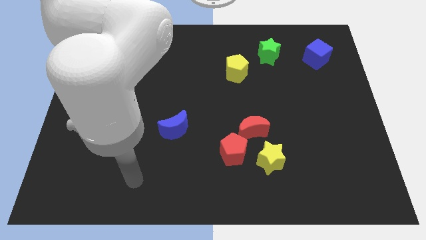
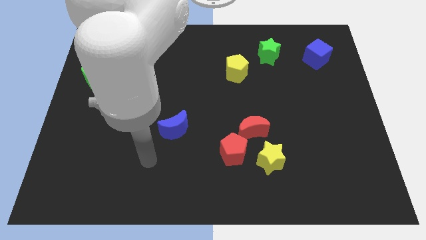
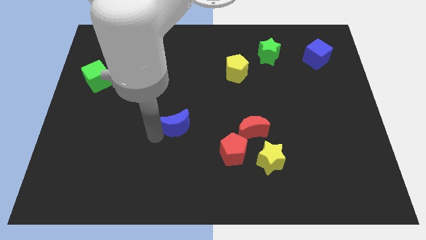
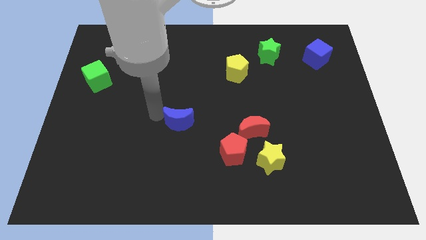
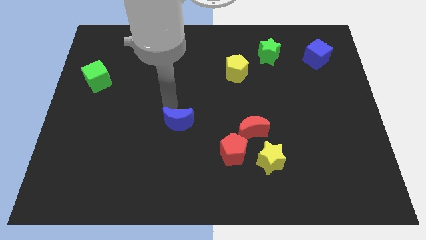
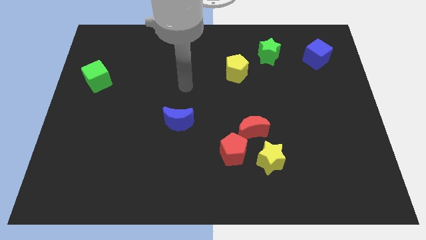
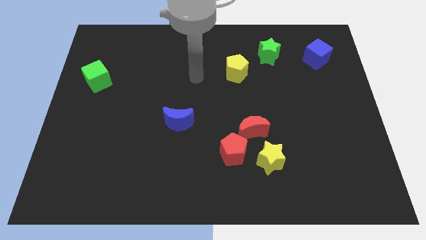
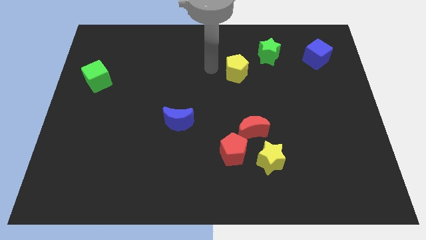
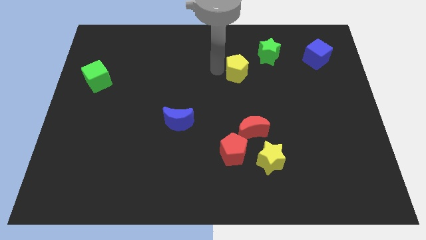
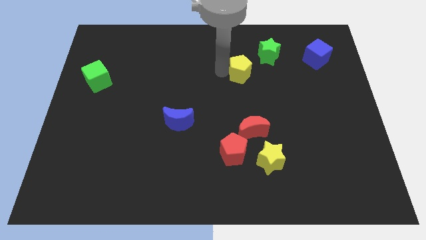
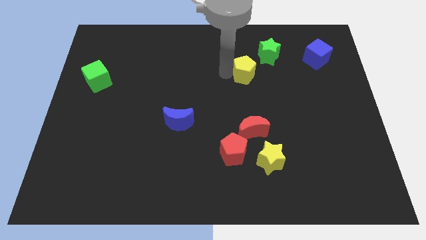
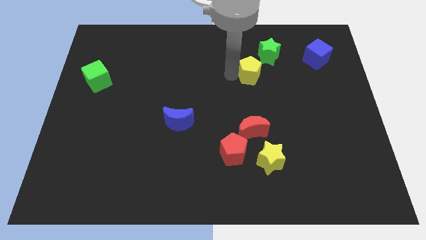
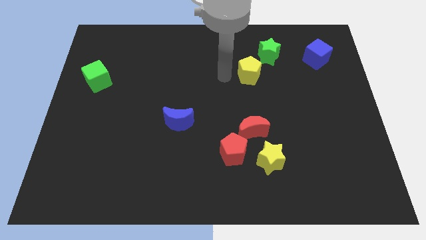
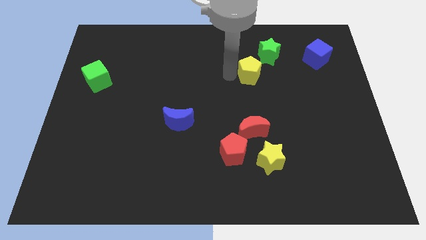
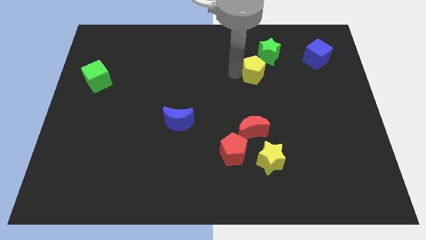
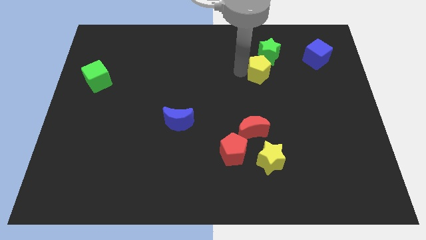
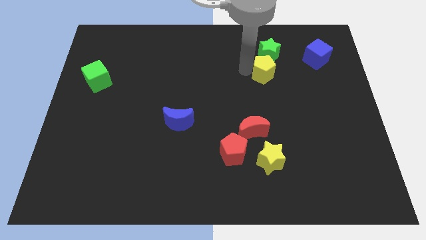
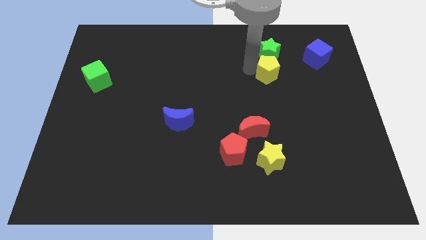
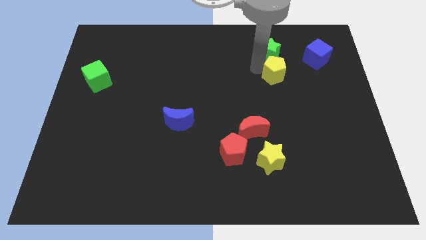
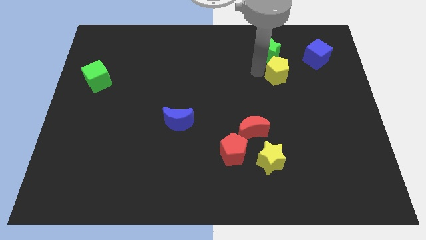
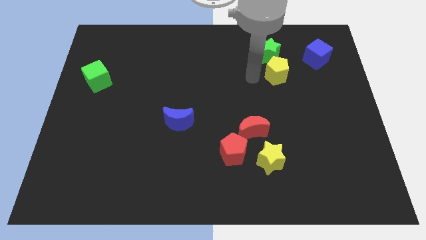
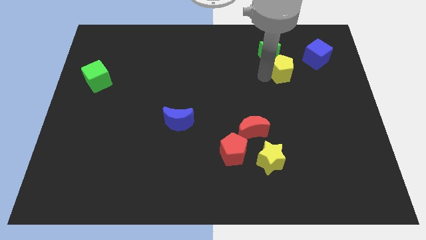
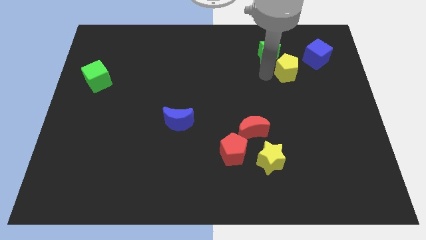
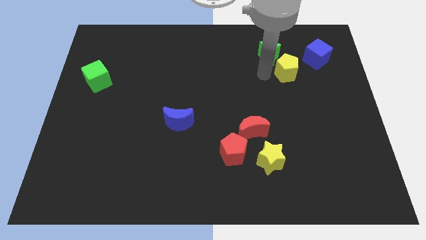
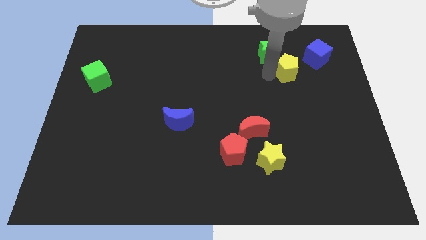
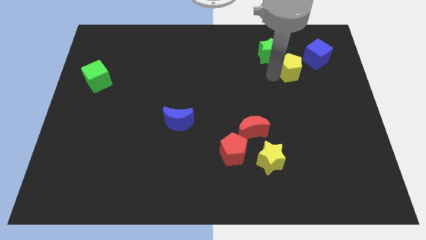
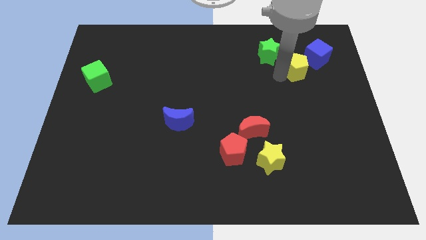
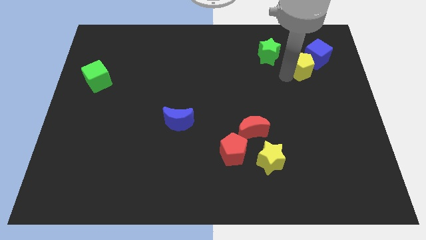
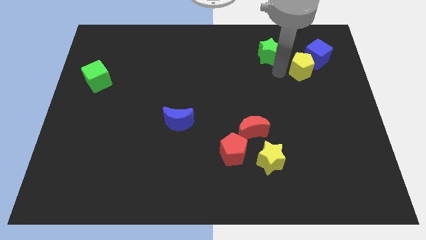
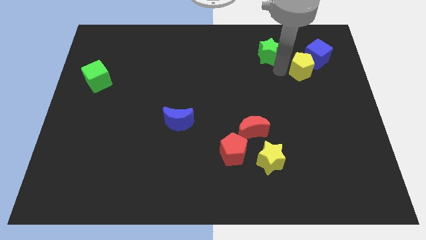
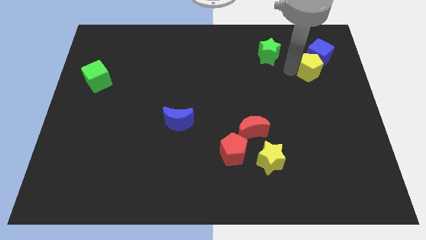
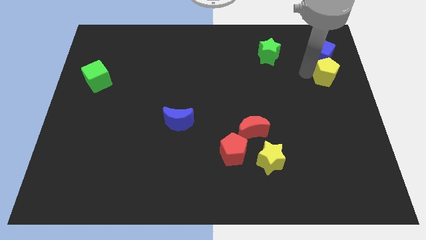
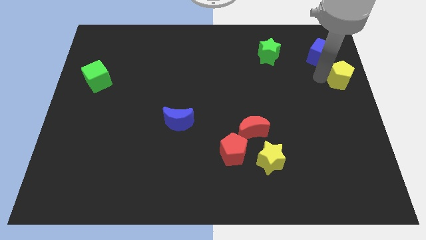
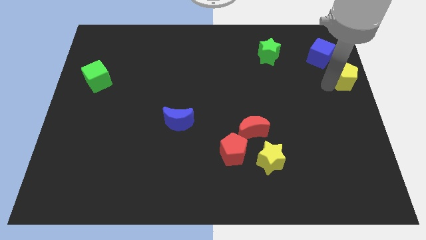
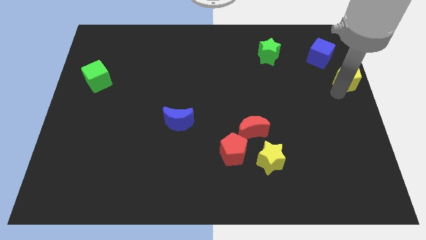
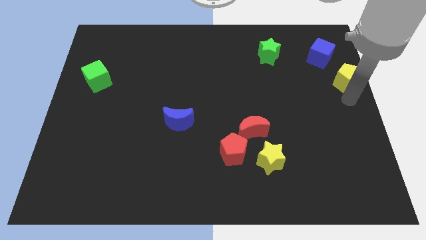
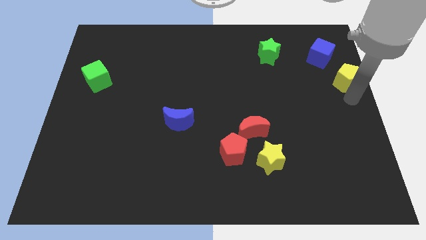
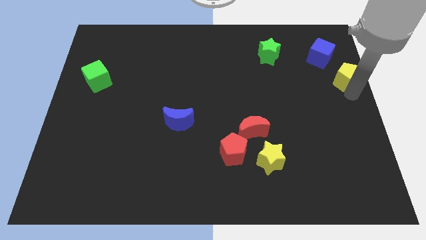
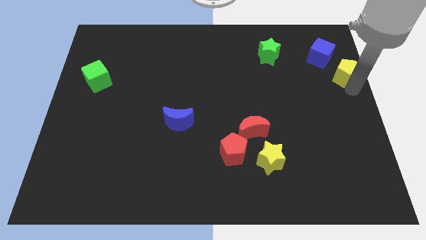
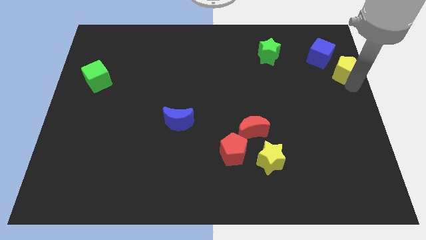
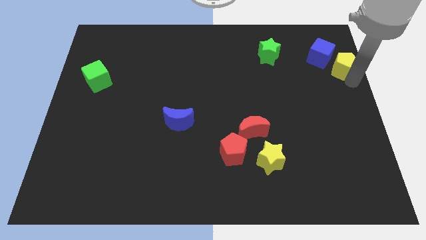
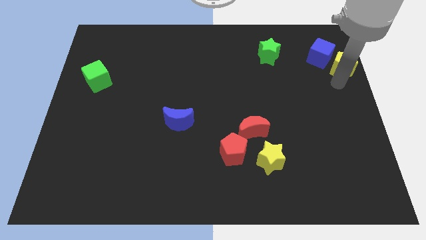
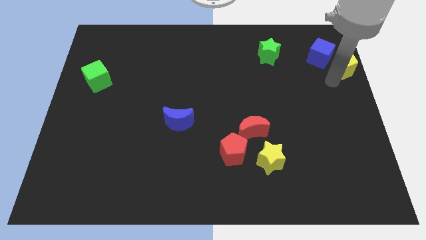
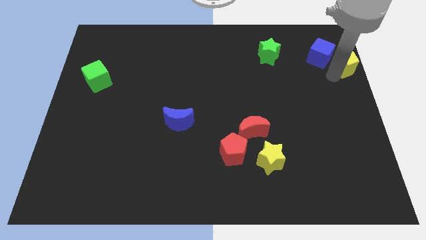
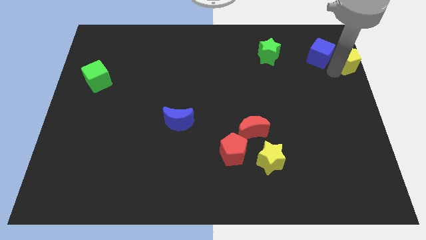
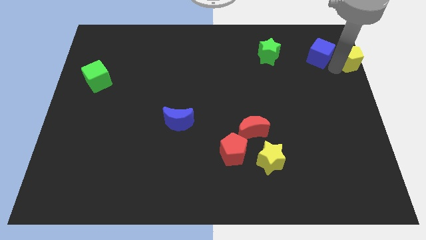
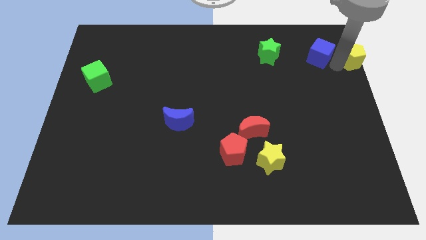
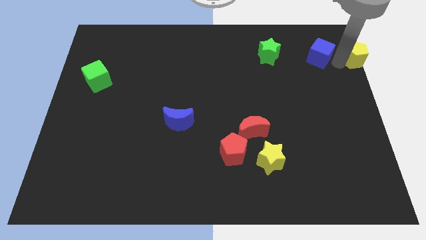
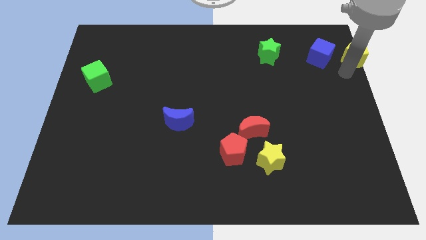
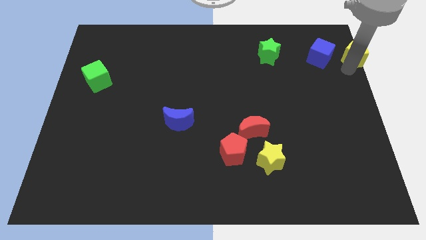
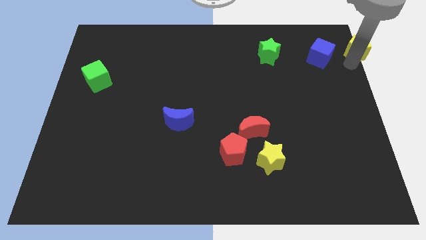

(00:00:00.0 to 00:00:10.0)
put the yellow pentagon to the top right
